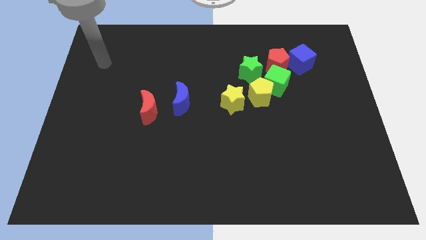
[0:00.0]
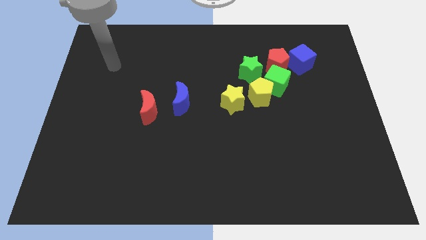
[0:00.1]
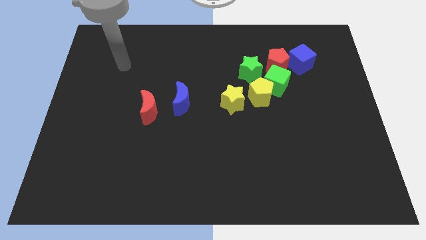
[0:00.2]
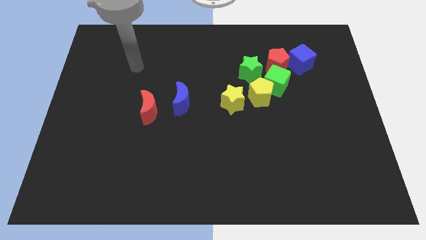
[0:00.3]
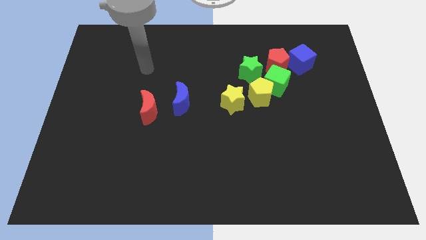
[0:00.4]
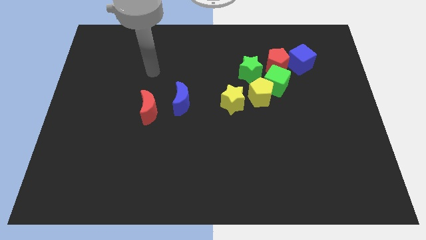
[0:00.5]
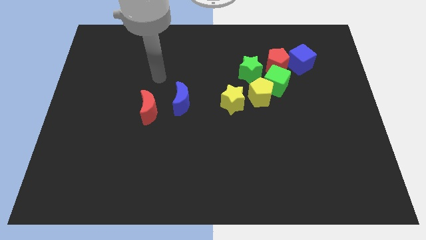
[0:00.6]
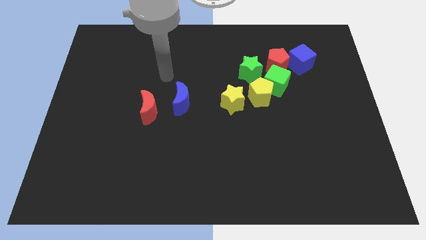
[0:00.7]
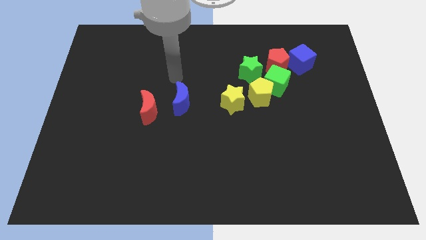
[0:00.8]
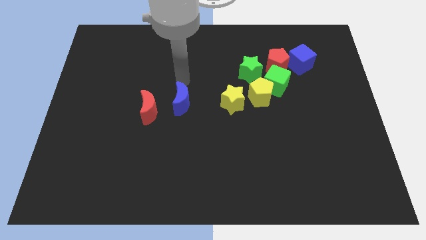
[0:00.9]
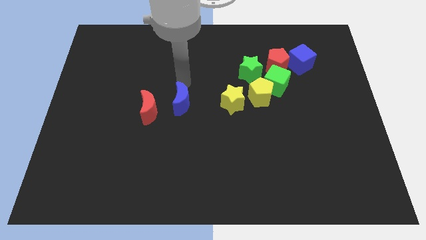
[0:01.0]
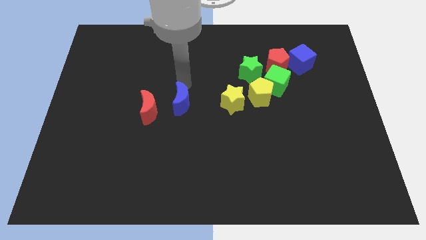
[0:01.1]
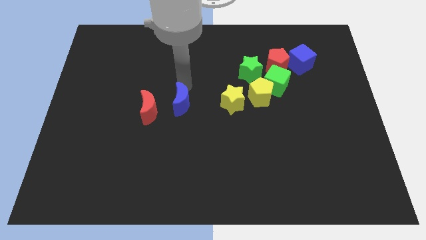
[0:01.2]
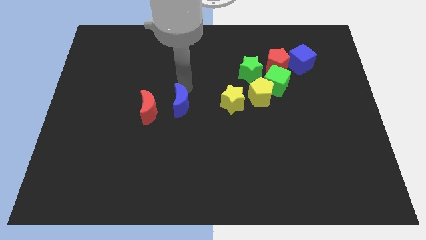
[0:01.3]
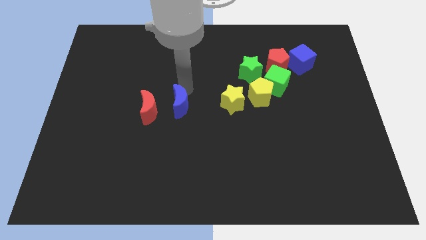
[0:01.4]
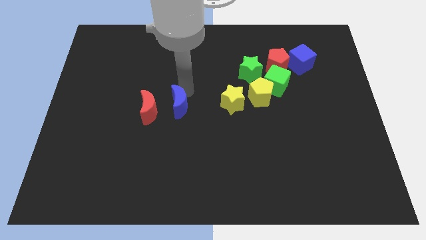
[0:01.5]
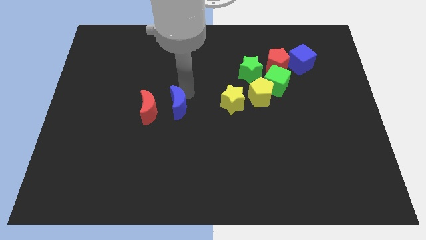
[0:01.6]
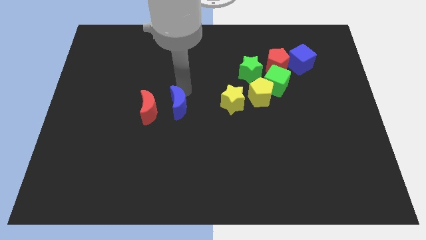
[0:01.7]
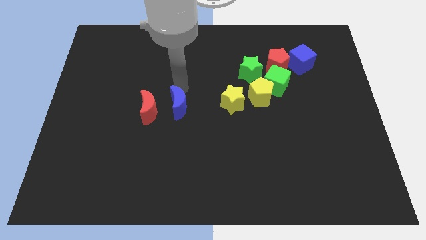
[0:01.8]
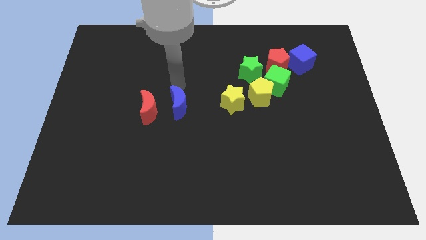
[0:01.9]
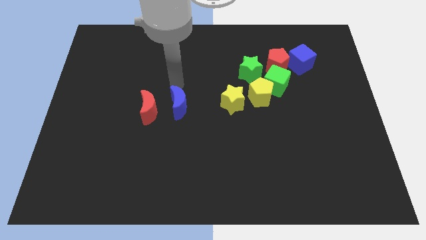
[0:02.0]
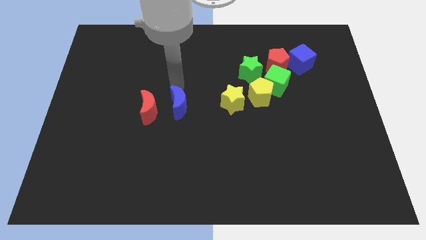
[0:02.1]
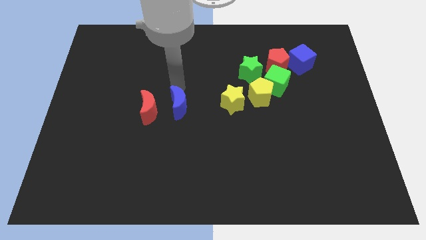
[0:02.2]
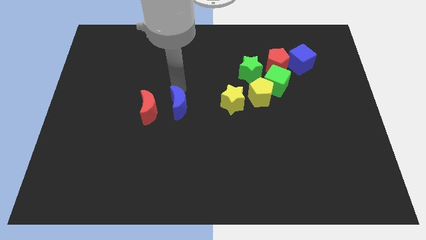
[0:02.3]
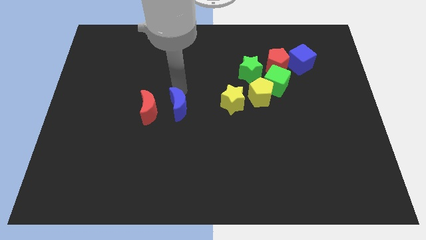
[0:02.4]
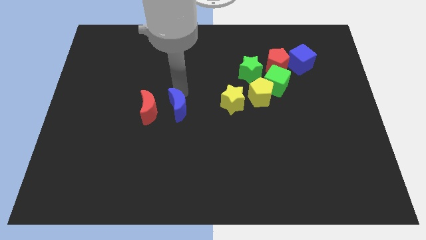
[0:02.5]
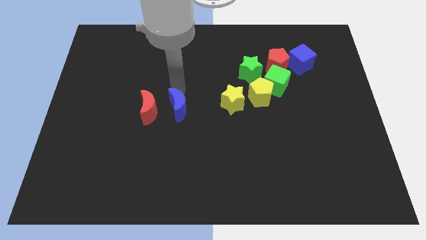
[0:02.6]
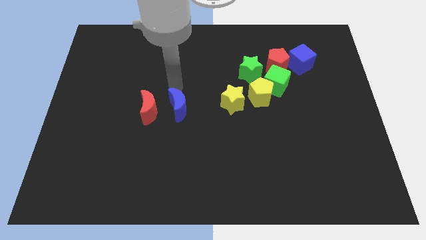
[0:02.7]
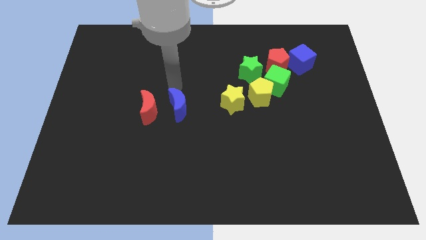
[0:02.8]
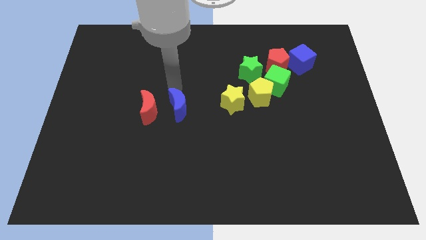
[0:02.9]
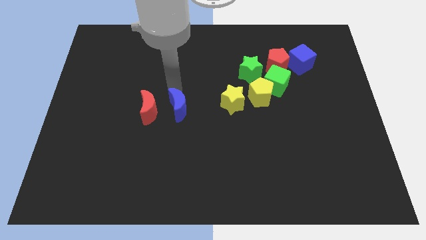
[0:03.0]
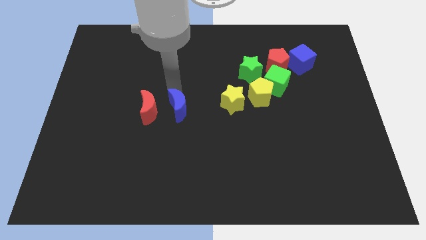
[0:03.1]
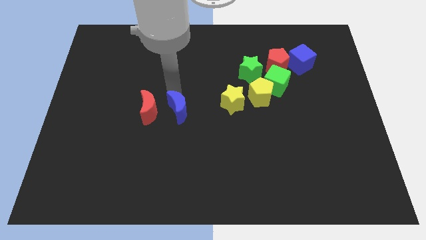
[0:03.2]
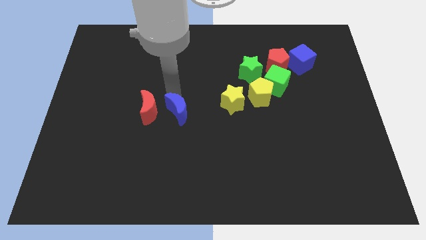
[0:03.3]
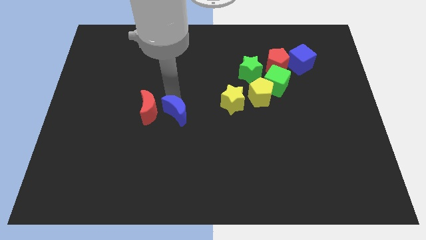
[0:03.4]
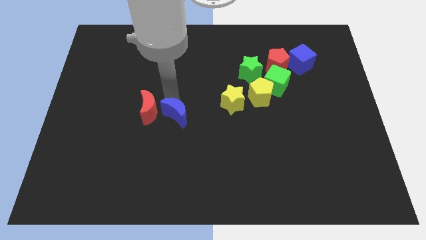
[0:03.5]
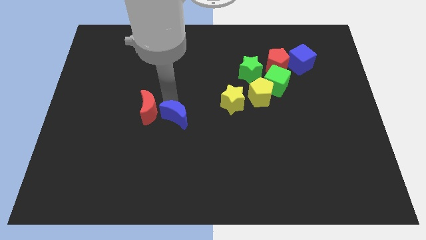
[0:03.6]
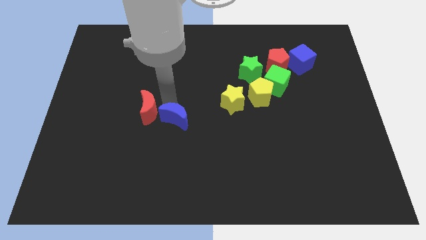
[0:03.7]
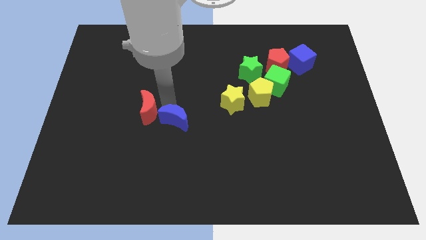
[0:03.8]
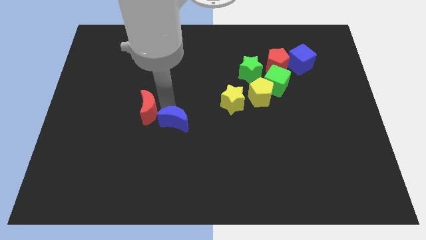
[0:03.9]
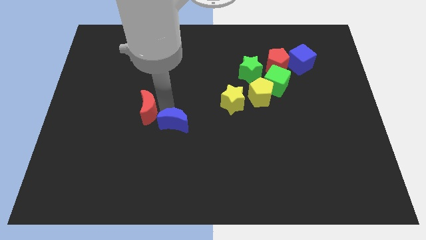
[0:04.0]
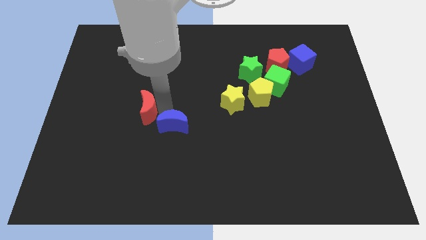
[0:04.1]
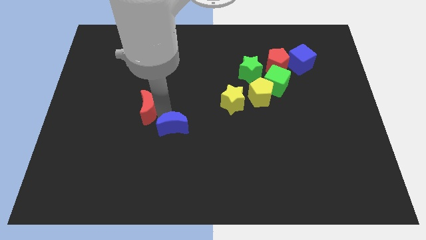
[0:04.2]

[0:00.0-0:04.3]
slide the blue moon downwards somewhat

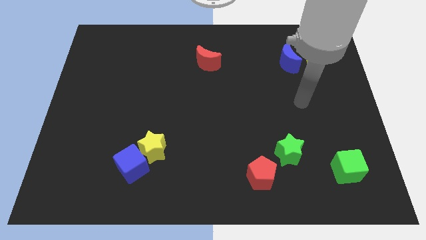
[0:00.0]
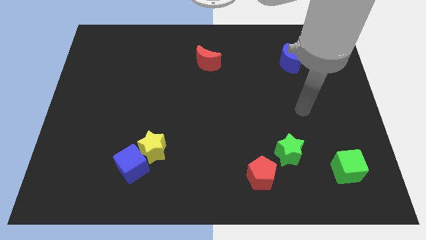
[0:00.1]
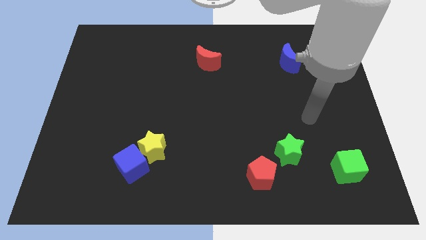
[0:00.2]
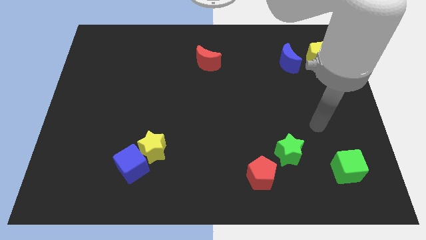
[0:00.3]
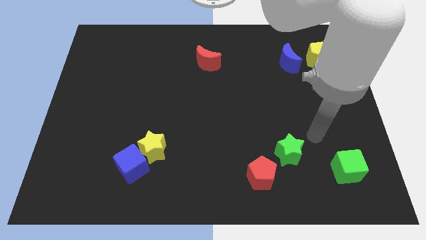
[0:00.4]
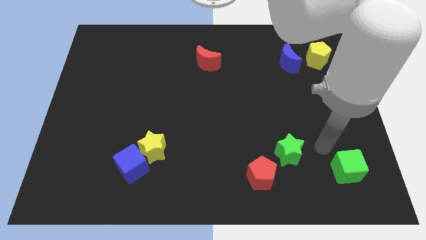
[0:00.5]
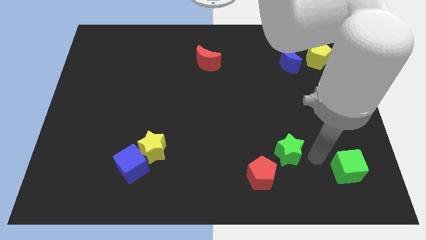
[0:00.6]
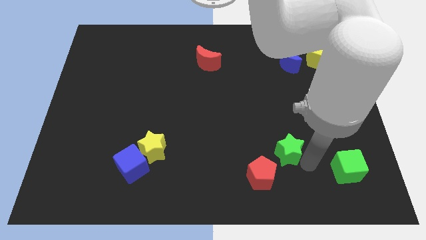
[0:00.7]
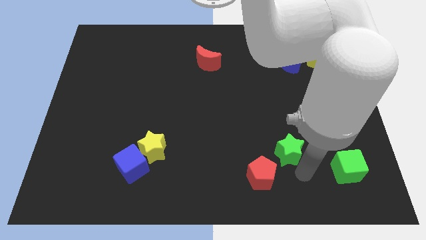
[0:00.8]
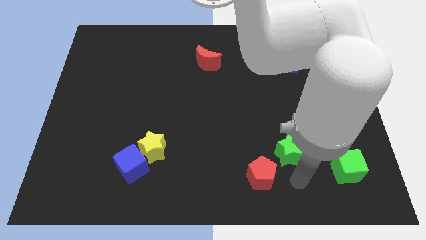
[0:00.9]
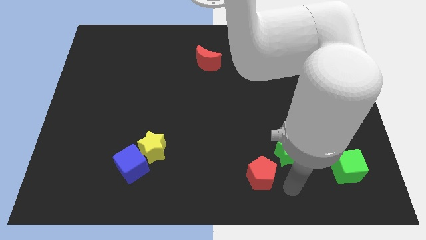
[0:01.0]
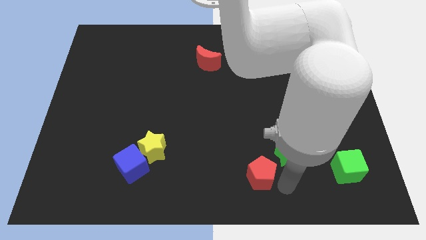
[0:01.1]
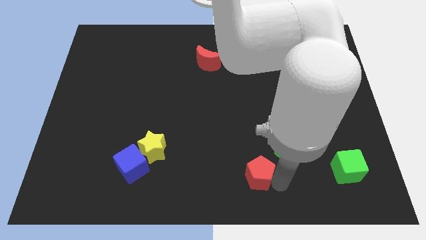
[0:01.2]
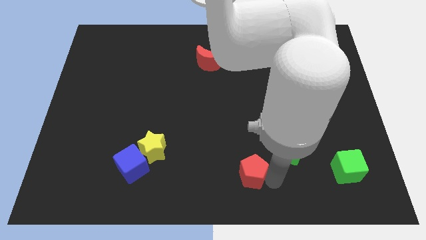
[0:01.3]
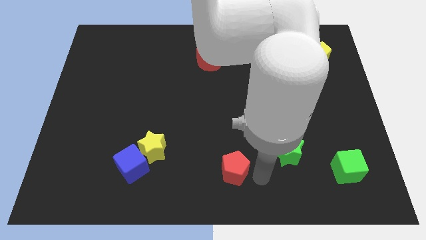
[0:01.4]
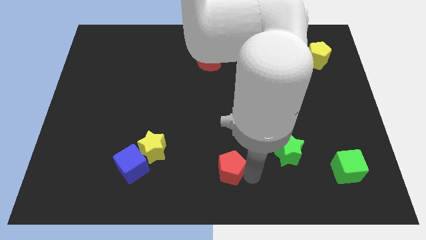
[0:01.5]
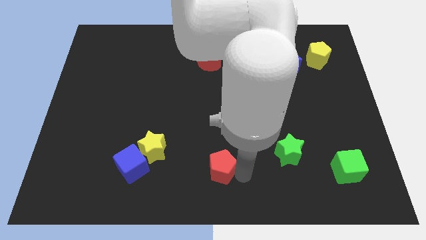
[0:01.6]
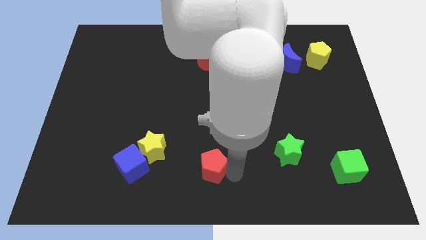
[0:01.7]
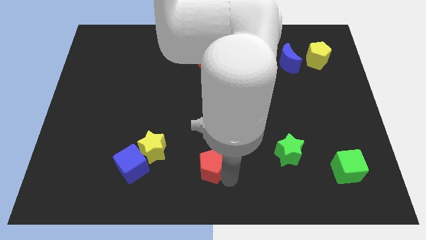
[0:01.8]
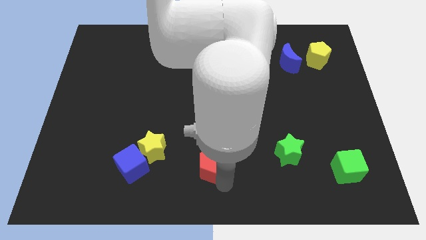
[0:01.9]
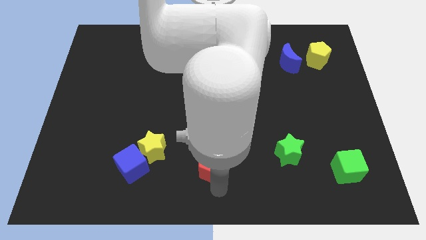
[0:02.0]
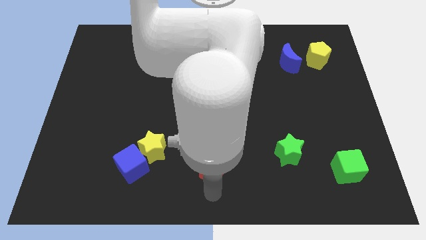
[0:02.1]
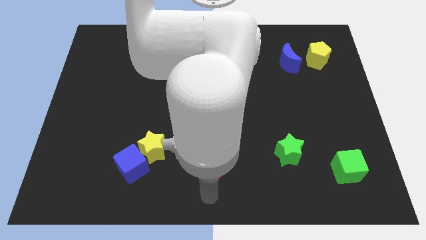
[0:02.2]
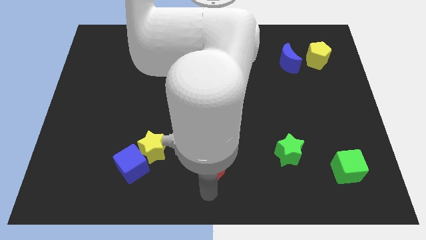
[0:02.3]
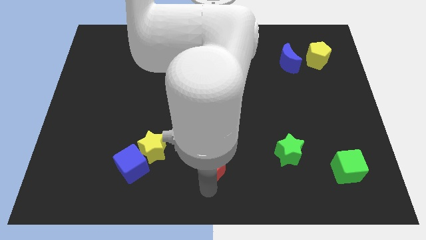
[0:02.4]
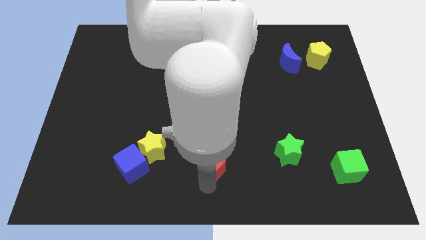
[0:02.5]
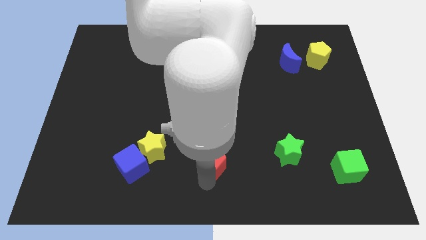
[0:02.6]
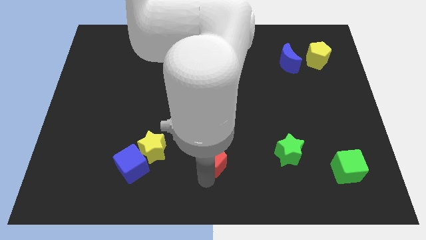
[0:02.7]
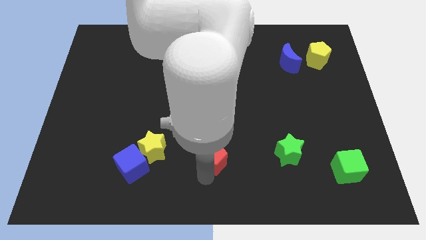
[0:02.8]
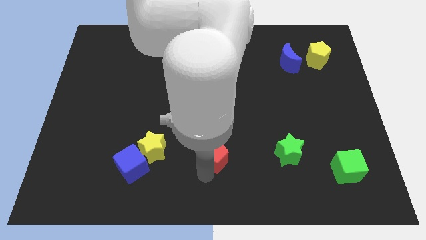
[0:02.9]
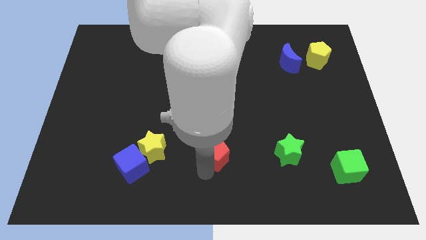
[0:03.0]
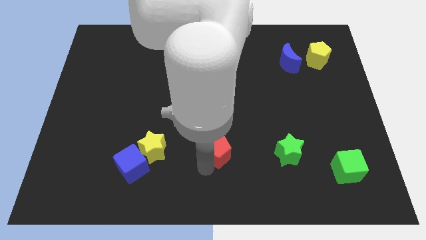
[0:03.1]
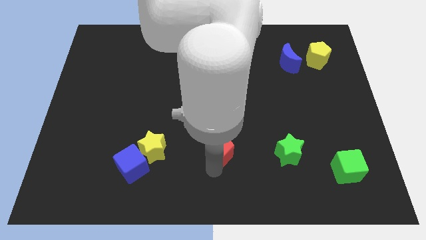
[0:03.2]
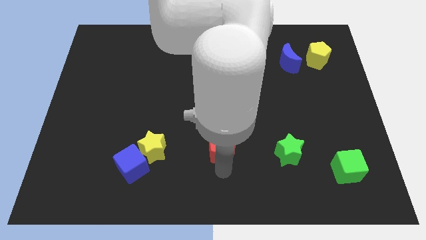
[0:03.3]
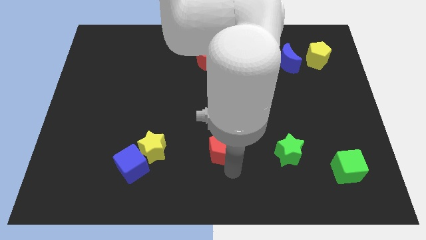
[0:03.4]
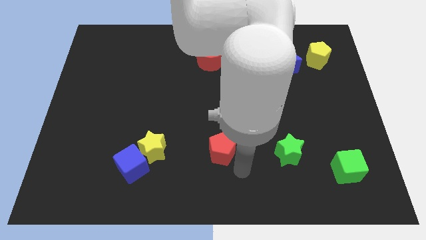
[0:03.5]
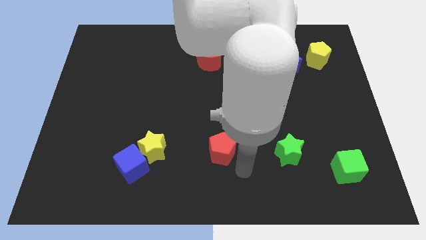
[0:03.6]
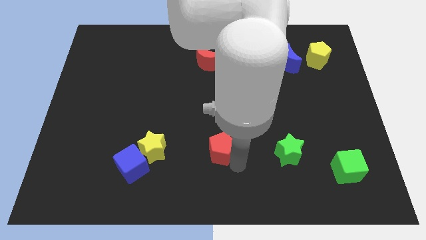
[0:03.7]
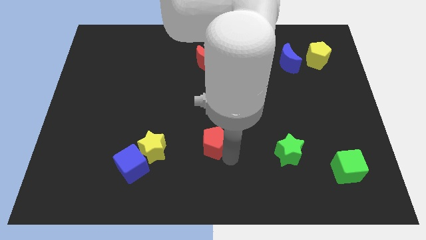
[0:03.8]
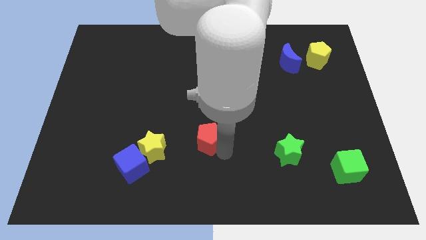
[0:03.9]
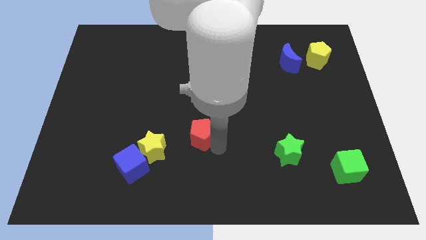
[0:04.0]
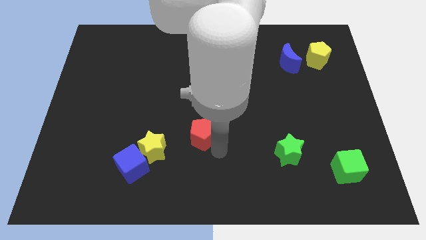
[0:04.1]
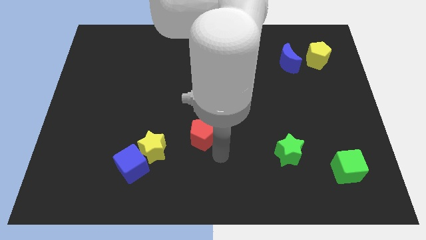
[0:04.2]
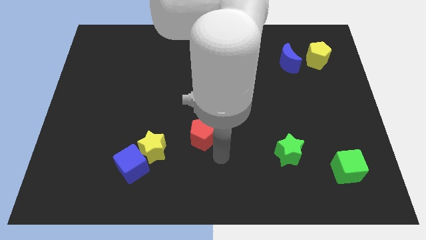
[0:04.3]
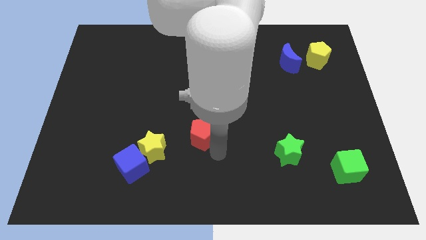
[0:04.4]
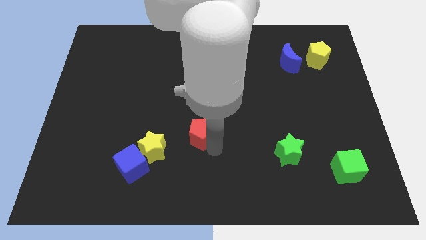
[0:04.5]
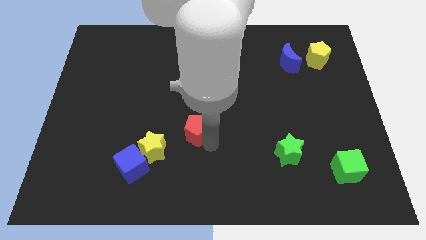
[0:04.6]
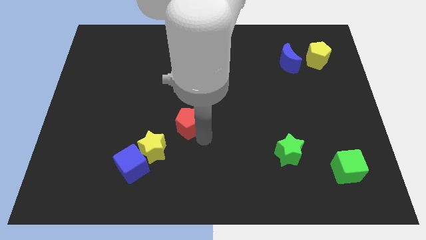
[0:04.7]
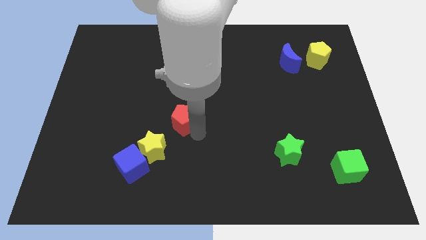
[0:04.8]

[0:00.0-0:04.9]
push the red pentagon upwards and then left
